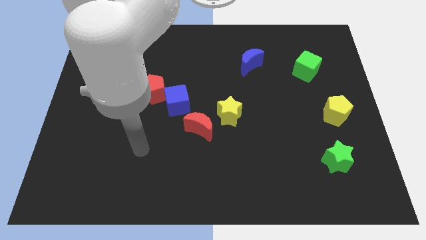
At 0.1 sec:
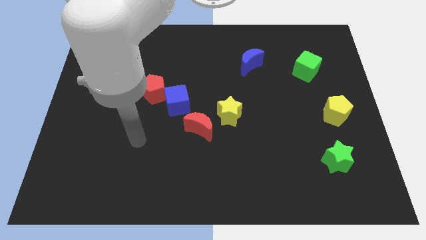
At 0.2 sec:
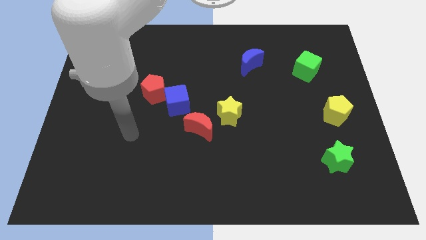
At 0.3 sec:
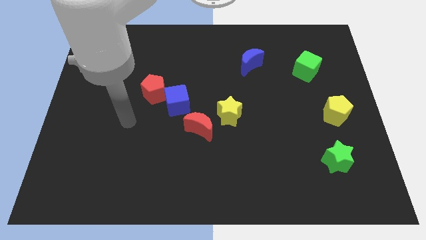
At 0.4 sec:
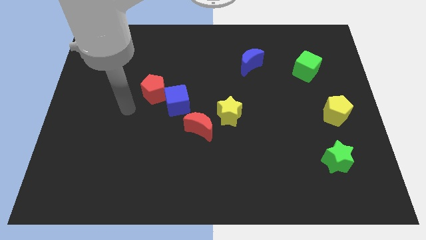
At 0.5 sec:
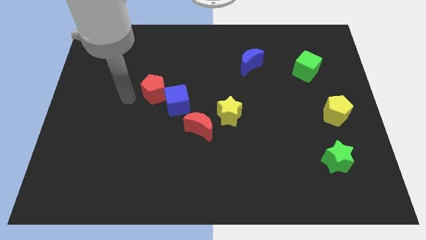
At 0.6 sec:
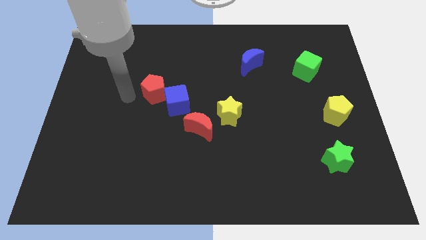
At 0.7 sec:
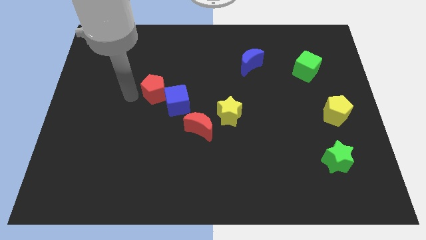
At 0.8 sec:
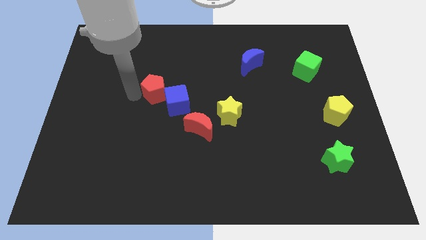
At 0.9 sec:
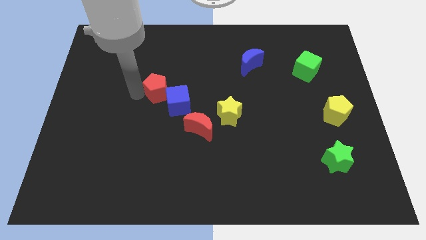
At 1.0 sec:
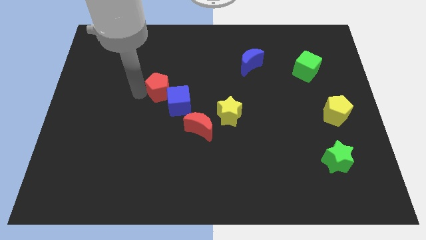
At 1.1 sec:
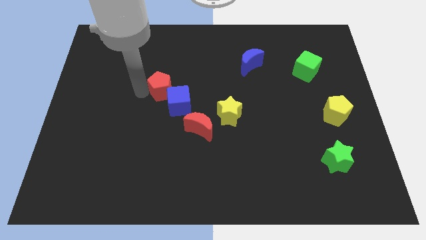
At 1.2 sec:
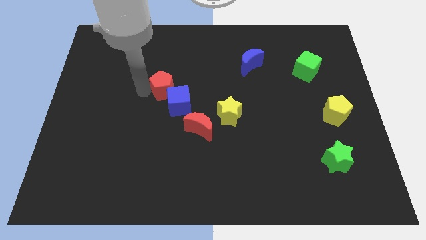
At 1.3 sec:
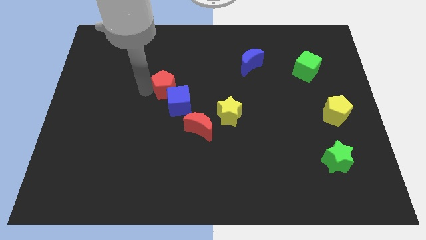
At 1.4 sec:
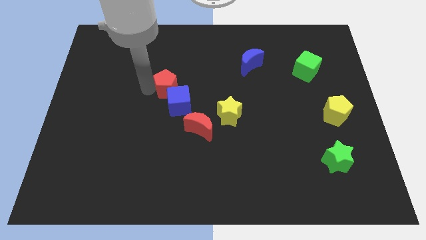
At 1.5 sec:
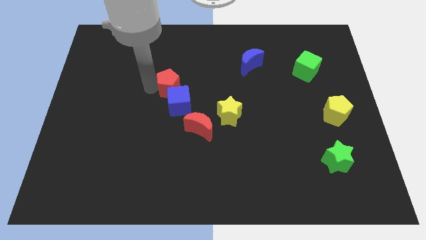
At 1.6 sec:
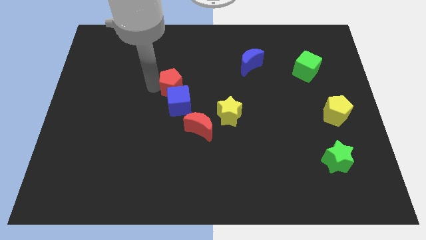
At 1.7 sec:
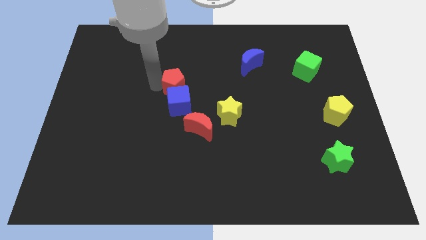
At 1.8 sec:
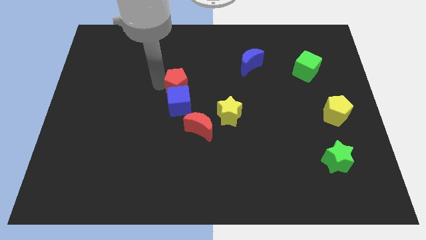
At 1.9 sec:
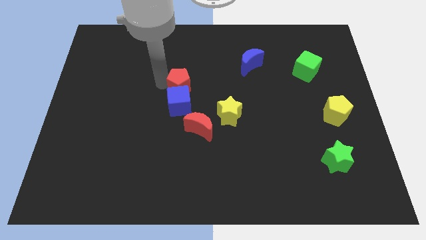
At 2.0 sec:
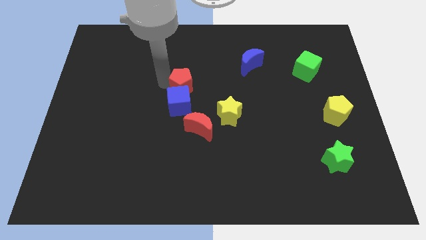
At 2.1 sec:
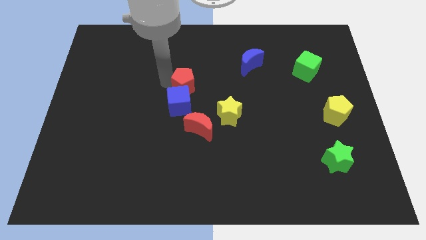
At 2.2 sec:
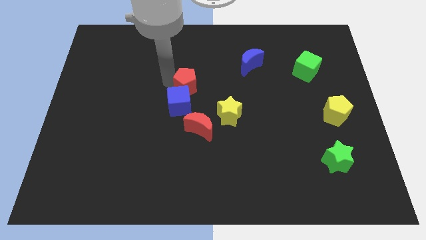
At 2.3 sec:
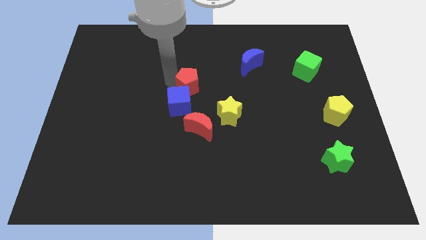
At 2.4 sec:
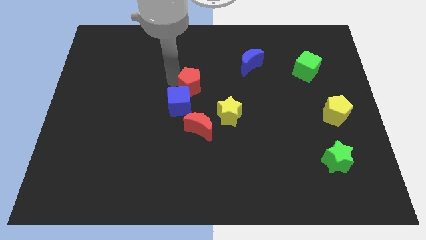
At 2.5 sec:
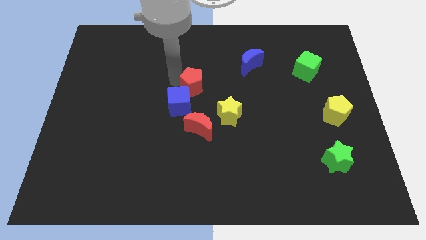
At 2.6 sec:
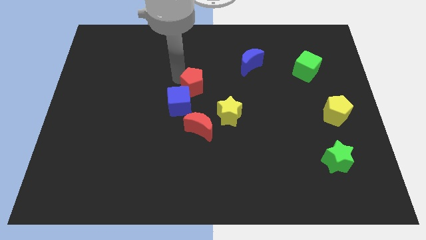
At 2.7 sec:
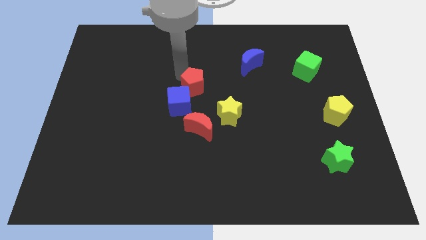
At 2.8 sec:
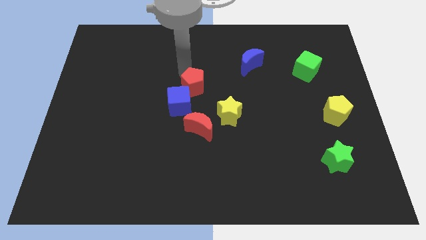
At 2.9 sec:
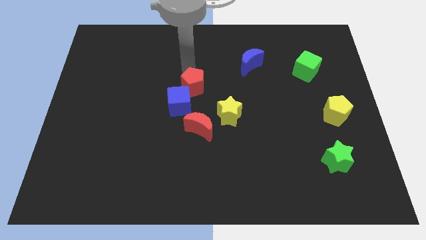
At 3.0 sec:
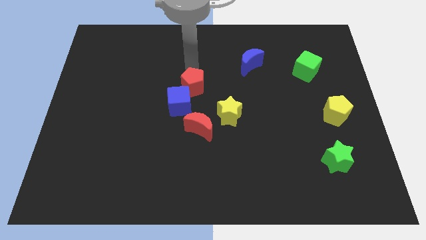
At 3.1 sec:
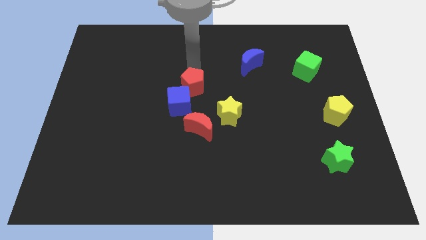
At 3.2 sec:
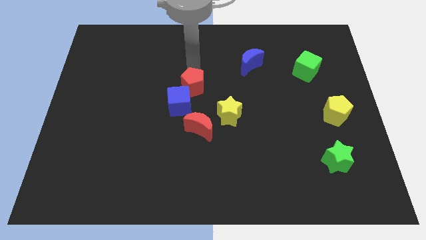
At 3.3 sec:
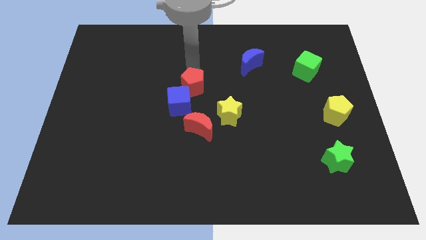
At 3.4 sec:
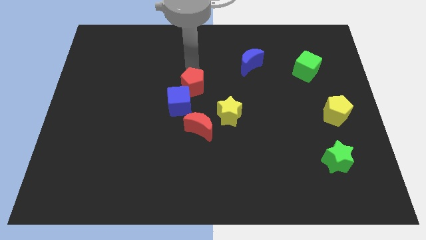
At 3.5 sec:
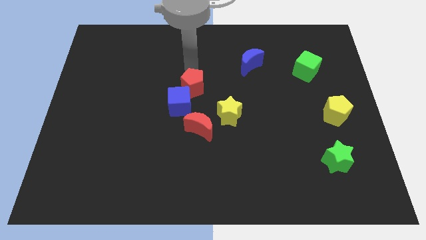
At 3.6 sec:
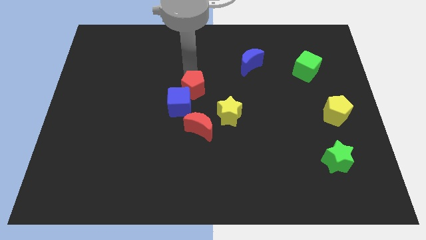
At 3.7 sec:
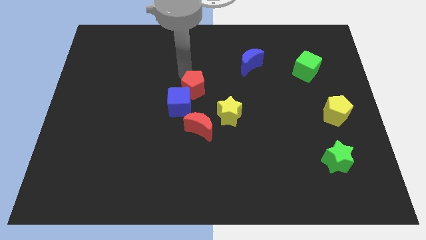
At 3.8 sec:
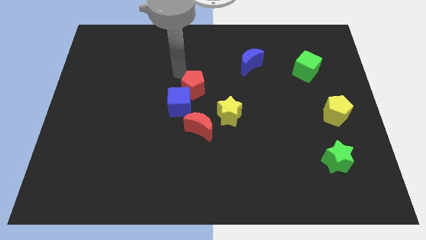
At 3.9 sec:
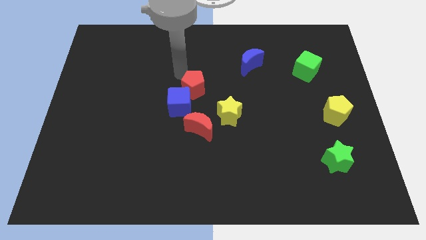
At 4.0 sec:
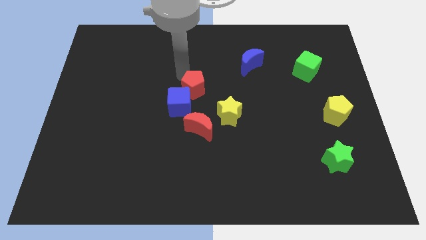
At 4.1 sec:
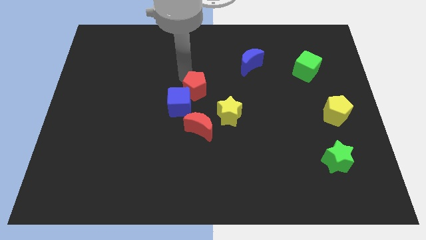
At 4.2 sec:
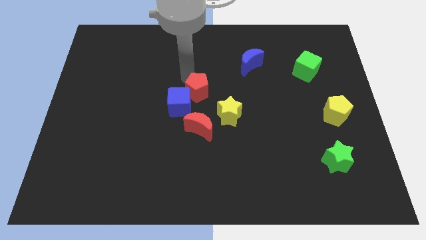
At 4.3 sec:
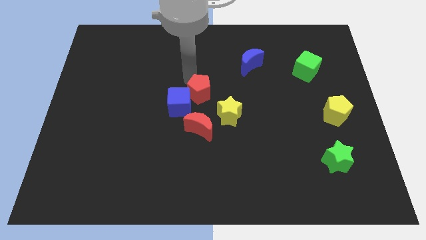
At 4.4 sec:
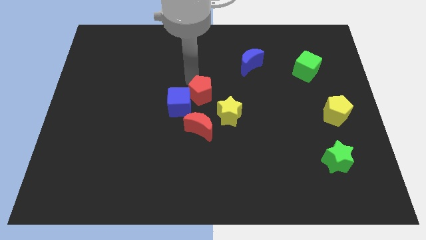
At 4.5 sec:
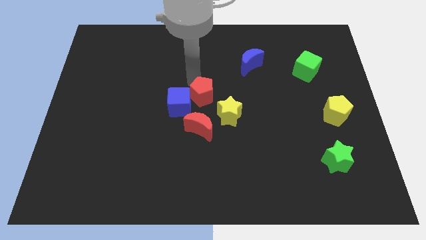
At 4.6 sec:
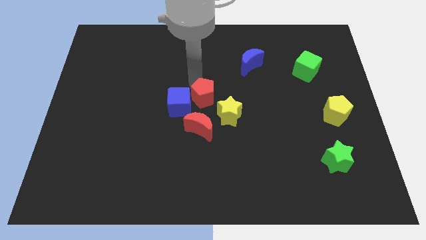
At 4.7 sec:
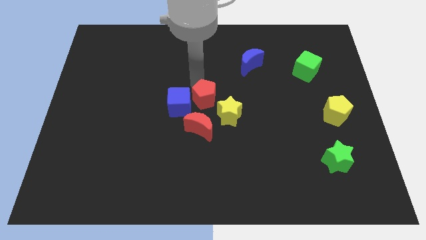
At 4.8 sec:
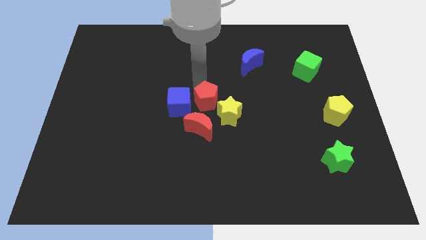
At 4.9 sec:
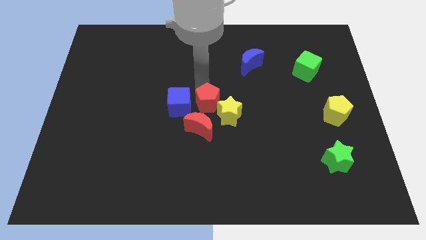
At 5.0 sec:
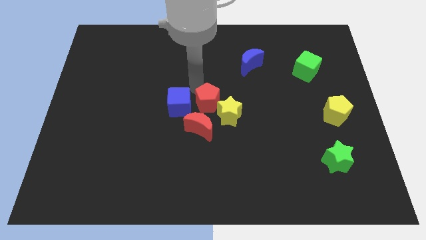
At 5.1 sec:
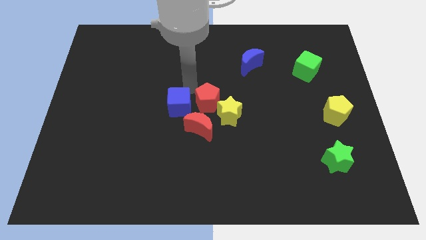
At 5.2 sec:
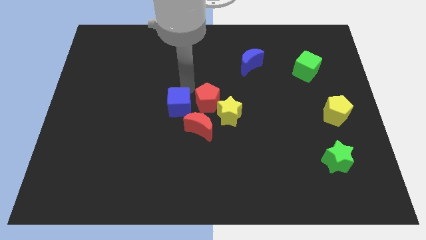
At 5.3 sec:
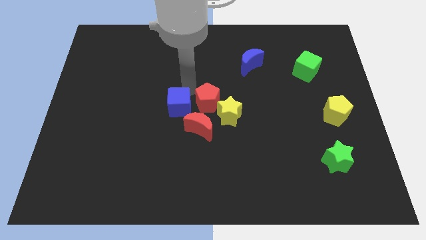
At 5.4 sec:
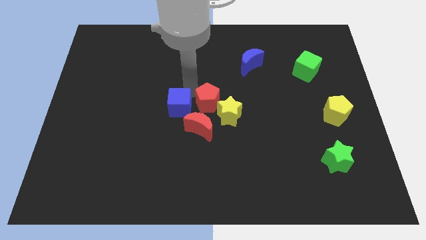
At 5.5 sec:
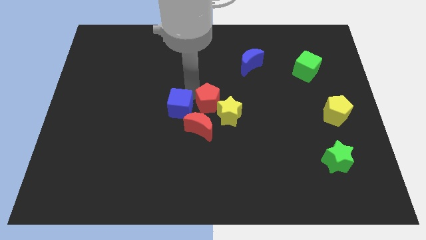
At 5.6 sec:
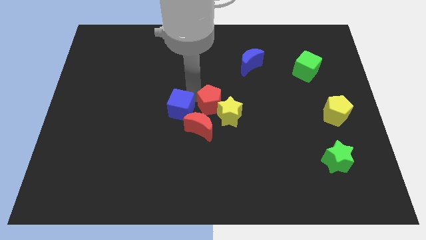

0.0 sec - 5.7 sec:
put the red pentagon next to the yellow star
